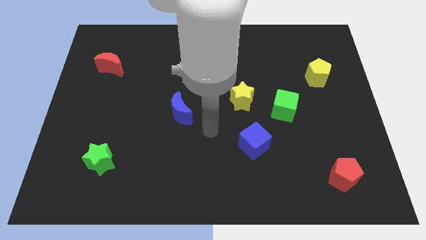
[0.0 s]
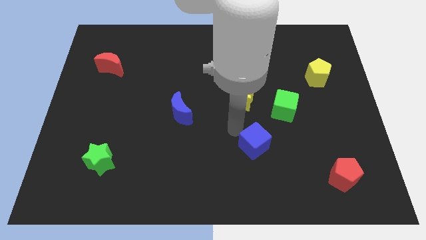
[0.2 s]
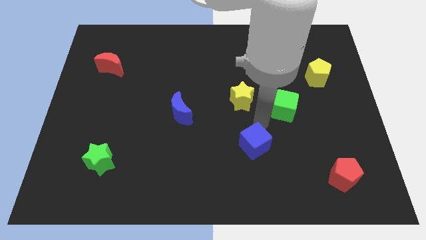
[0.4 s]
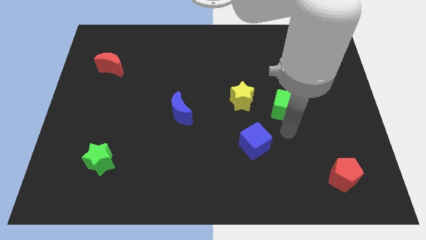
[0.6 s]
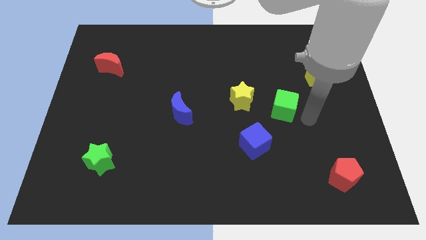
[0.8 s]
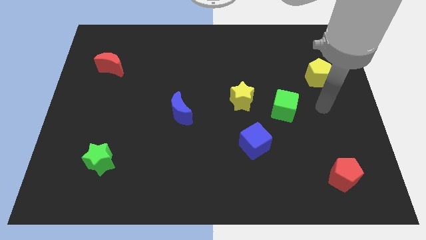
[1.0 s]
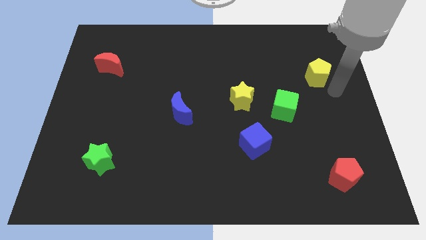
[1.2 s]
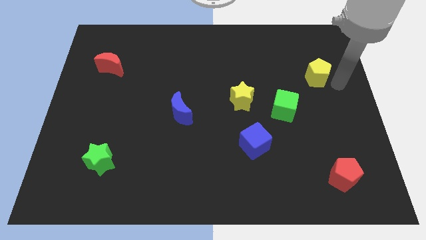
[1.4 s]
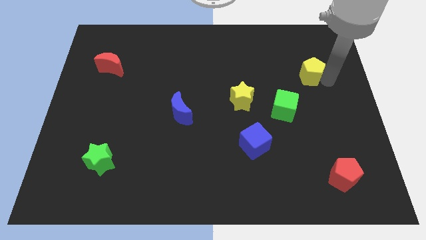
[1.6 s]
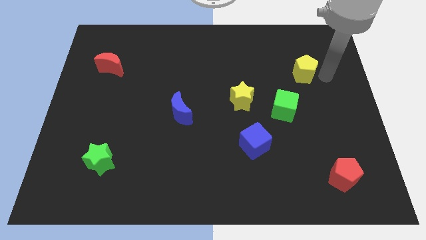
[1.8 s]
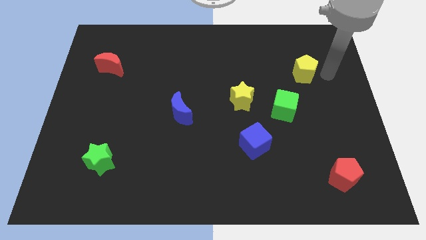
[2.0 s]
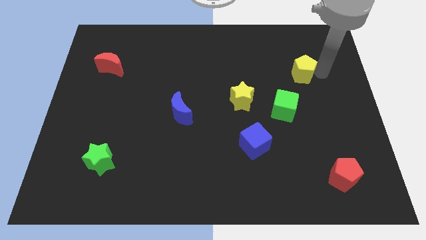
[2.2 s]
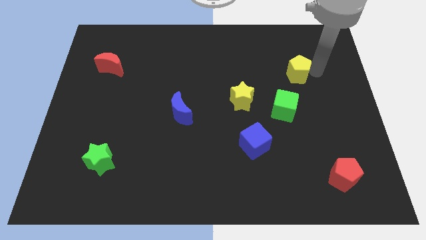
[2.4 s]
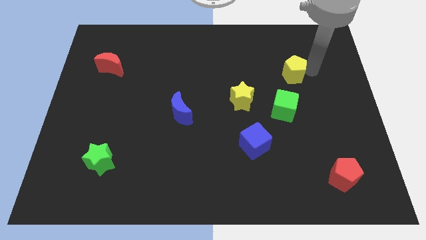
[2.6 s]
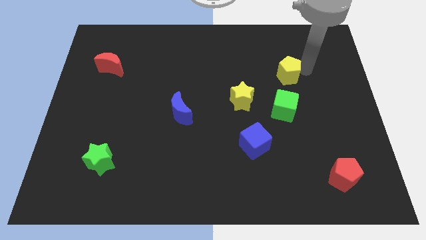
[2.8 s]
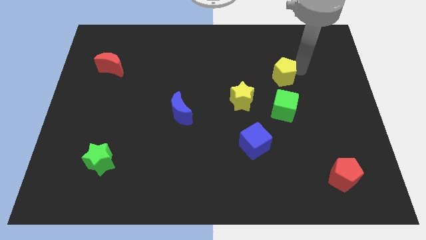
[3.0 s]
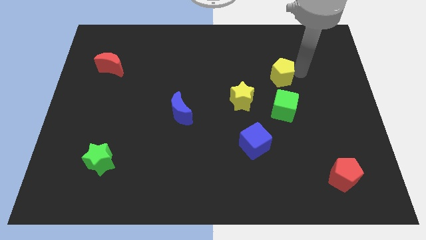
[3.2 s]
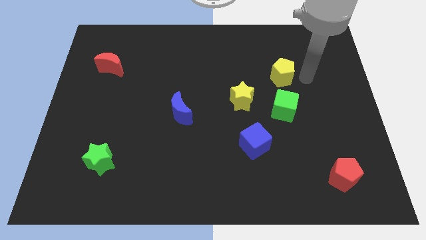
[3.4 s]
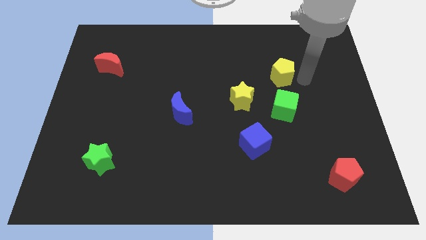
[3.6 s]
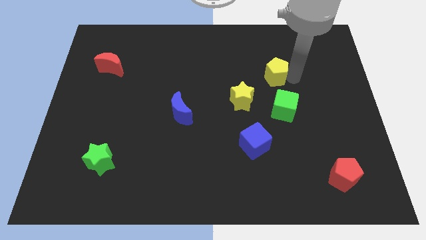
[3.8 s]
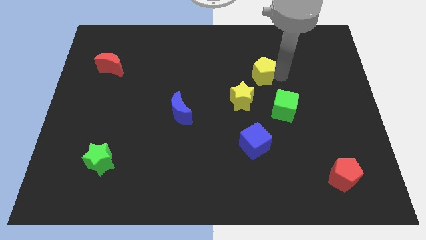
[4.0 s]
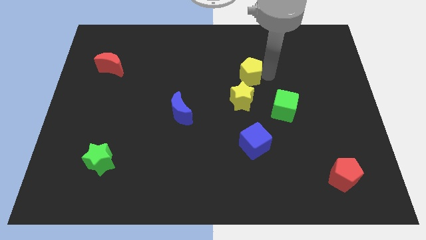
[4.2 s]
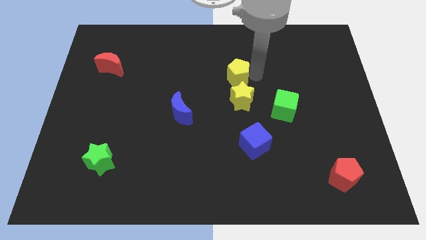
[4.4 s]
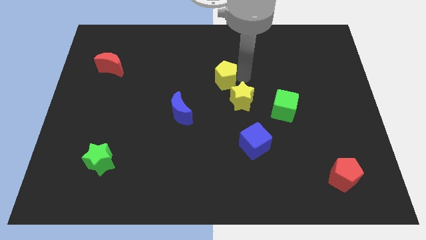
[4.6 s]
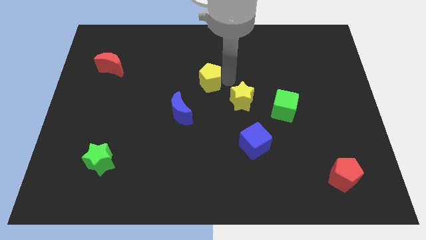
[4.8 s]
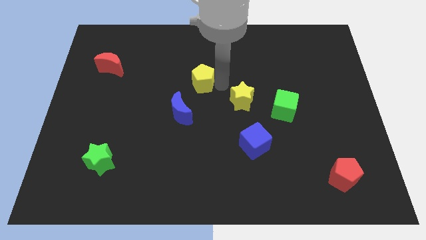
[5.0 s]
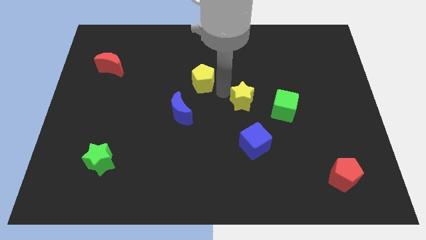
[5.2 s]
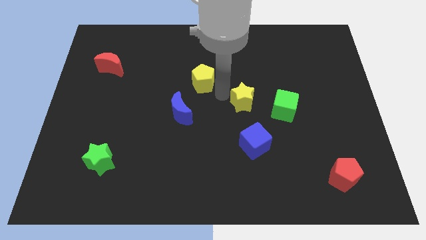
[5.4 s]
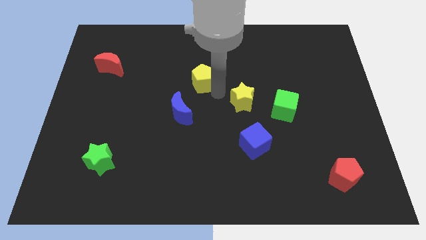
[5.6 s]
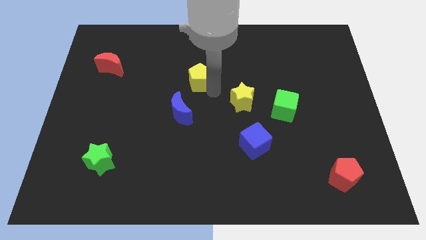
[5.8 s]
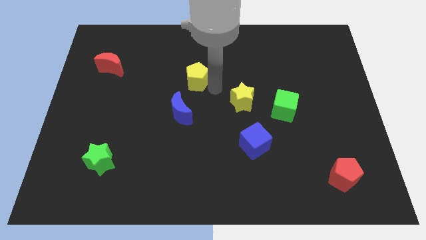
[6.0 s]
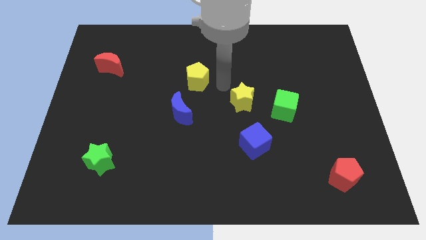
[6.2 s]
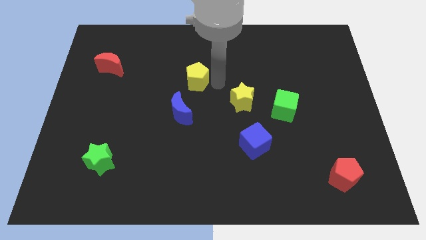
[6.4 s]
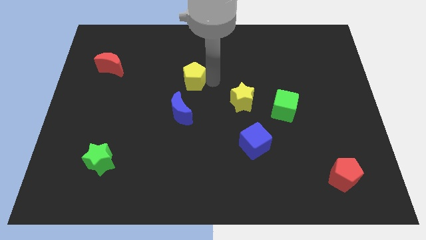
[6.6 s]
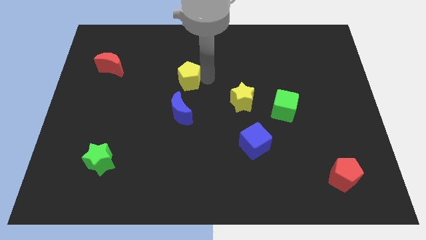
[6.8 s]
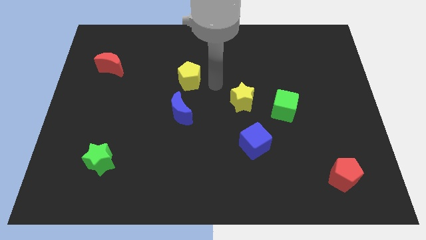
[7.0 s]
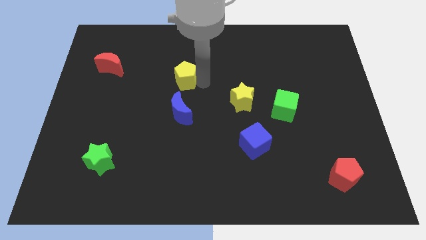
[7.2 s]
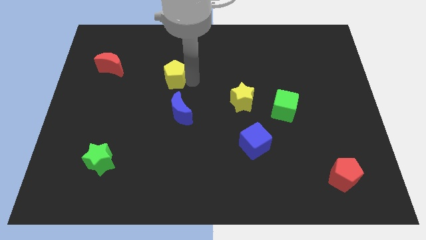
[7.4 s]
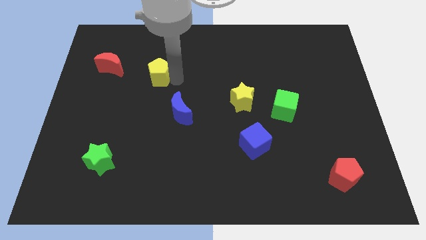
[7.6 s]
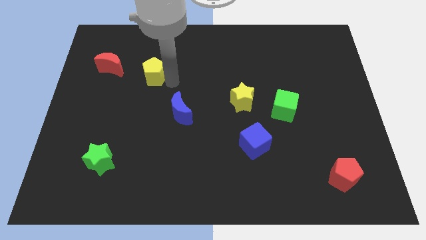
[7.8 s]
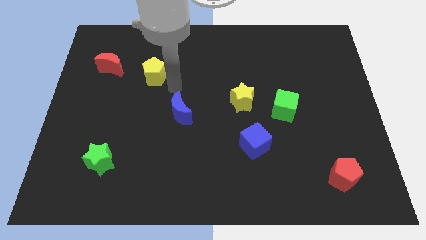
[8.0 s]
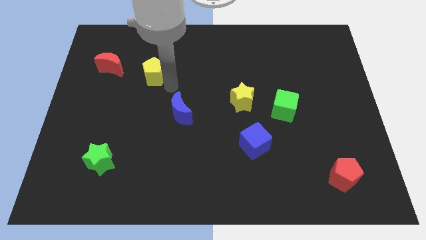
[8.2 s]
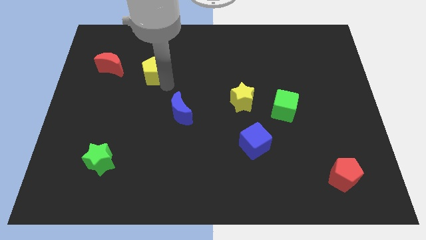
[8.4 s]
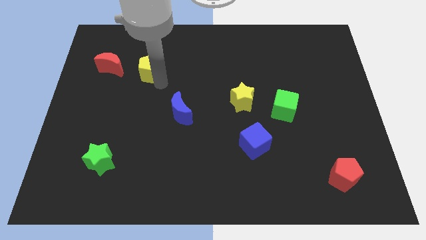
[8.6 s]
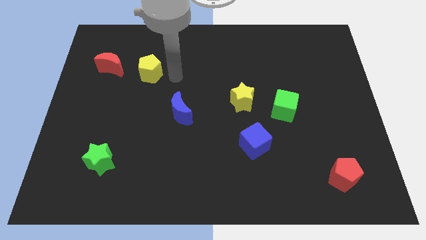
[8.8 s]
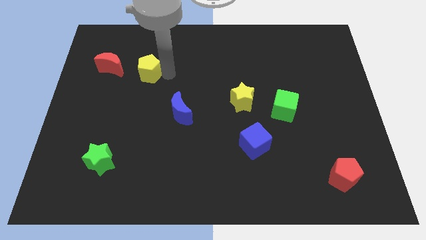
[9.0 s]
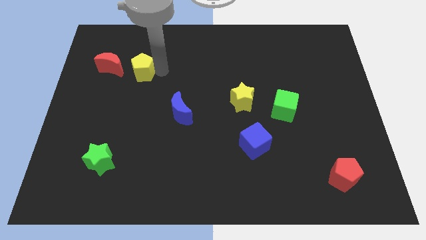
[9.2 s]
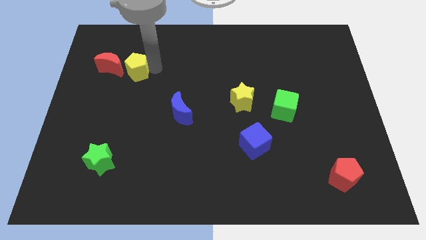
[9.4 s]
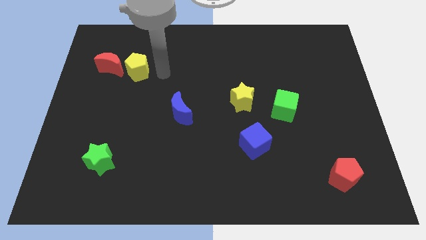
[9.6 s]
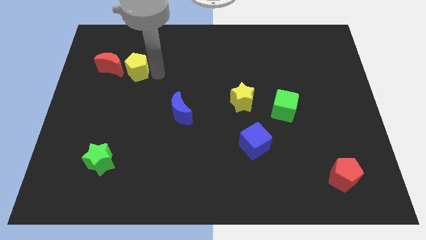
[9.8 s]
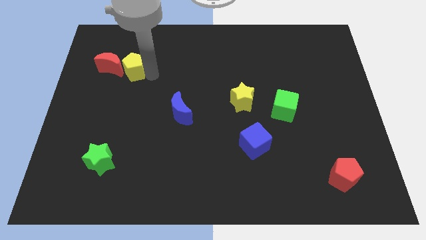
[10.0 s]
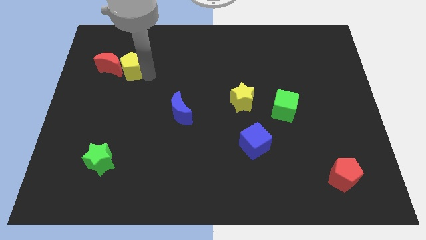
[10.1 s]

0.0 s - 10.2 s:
put the yellow pentagon to the red moon

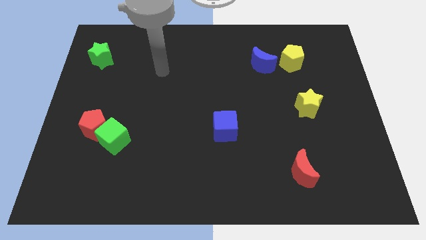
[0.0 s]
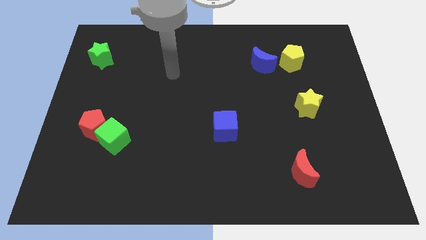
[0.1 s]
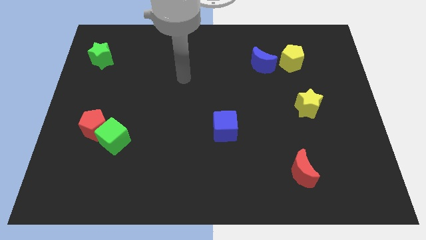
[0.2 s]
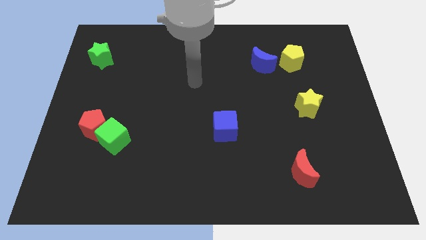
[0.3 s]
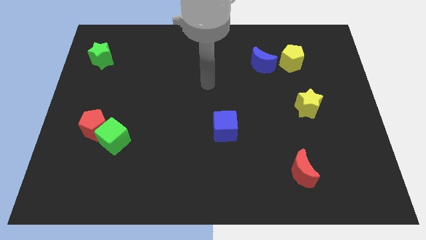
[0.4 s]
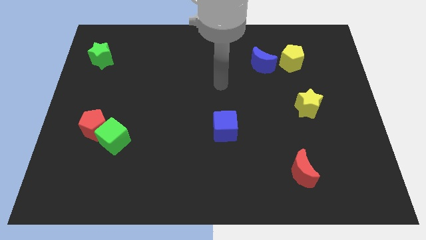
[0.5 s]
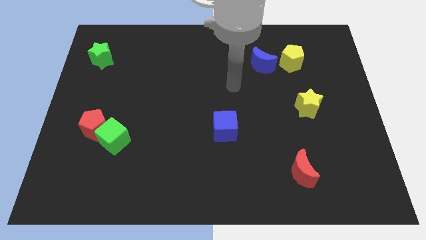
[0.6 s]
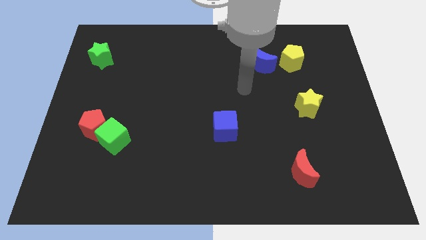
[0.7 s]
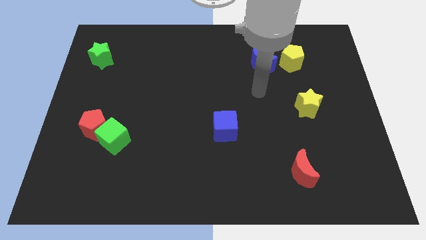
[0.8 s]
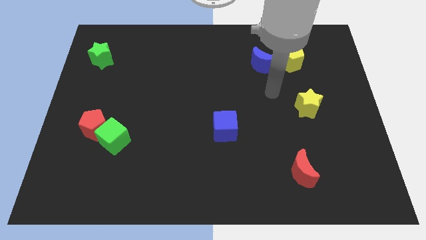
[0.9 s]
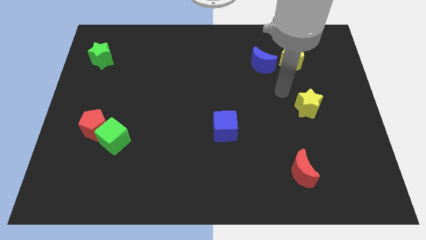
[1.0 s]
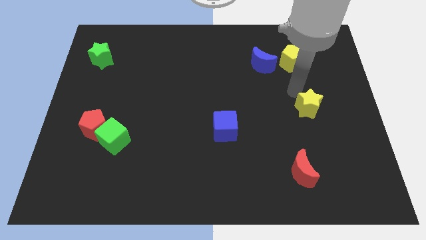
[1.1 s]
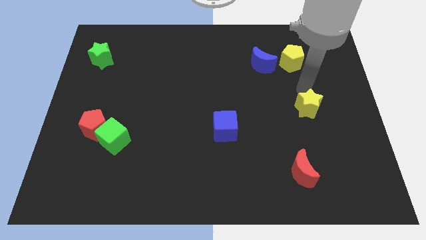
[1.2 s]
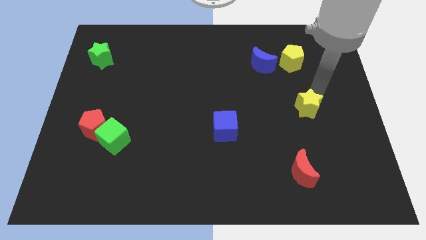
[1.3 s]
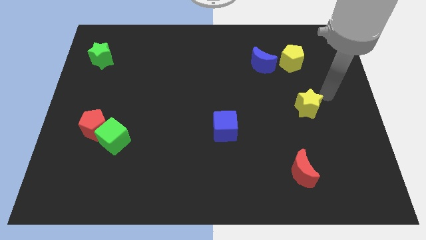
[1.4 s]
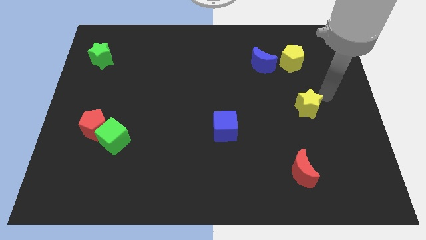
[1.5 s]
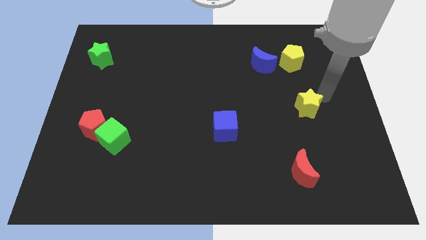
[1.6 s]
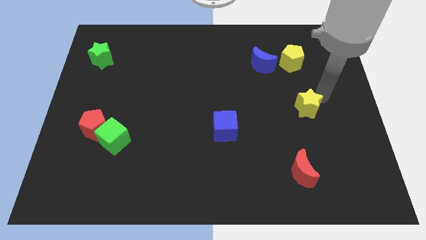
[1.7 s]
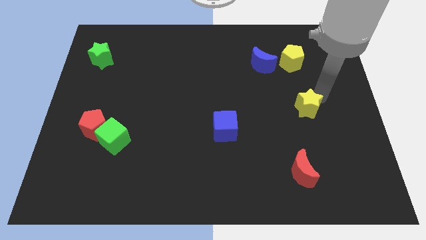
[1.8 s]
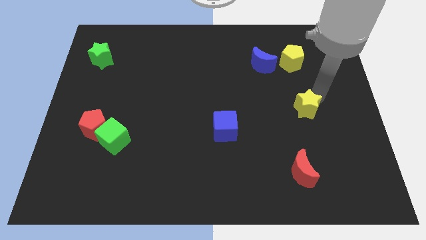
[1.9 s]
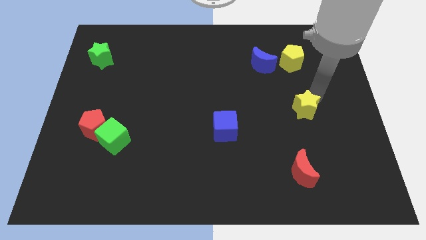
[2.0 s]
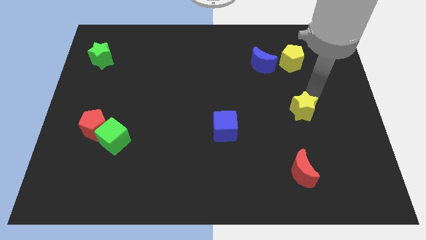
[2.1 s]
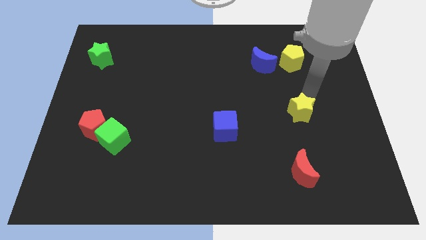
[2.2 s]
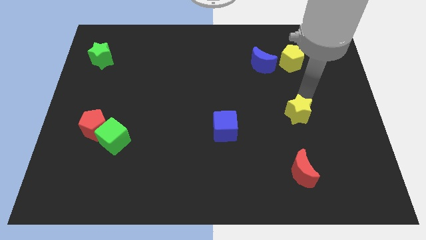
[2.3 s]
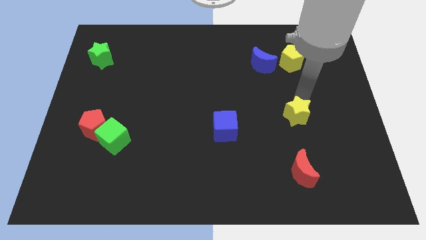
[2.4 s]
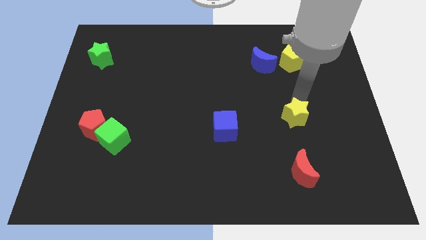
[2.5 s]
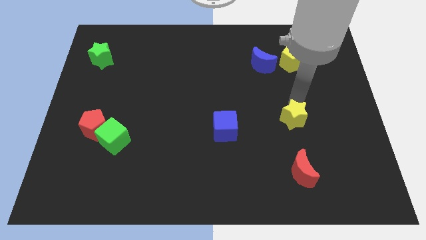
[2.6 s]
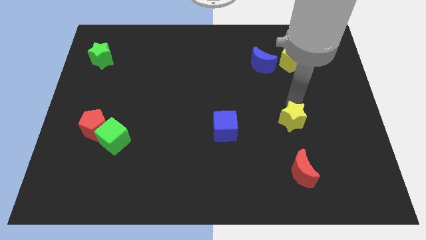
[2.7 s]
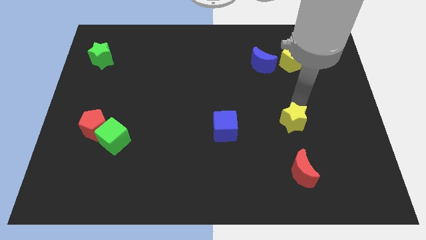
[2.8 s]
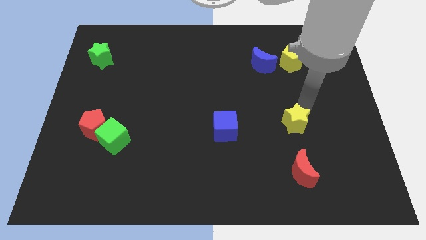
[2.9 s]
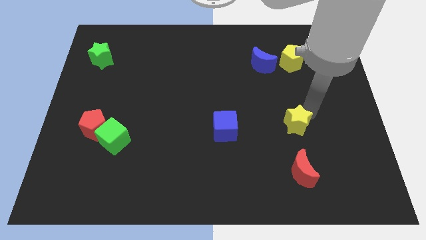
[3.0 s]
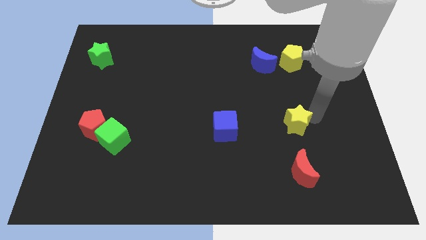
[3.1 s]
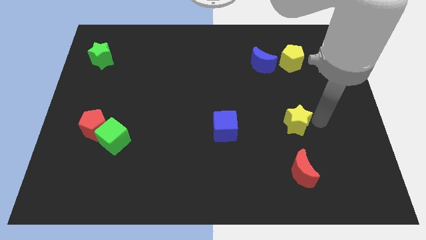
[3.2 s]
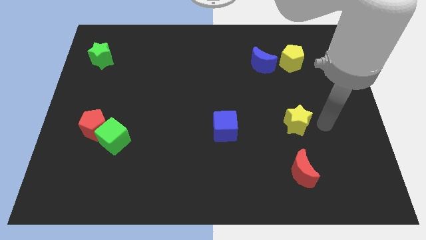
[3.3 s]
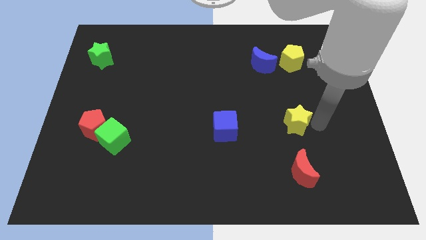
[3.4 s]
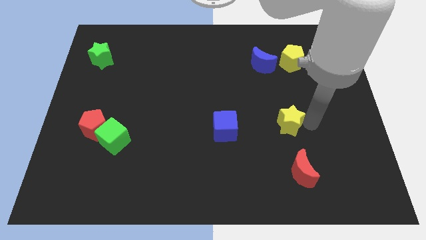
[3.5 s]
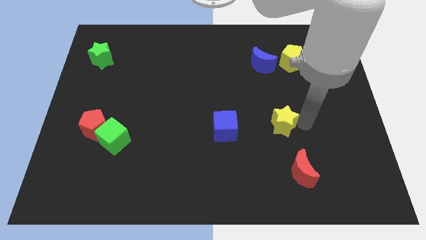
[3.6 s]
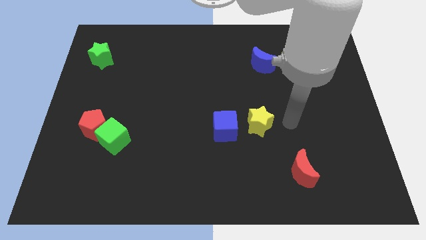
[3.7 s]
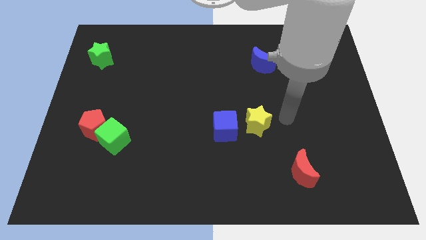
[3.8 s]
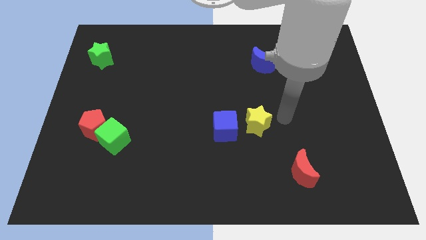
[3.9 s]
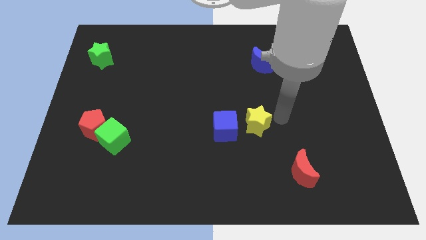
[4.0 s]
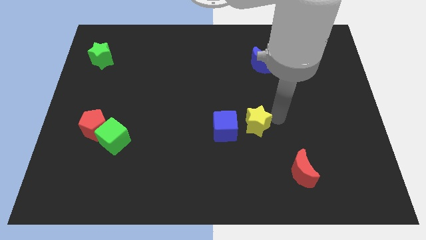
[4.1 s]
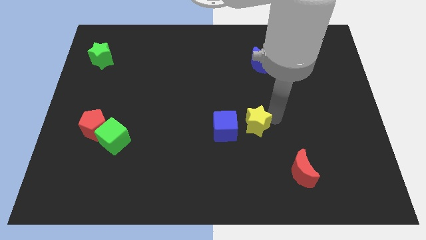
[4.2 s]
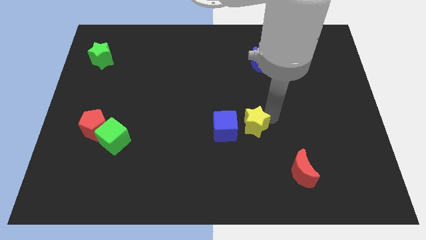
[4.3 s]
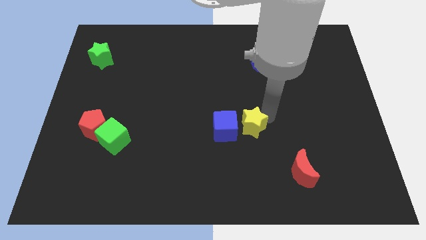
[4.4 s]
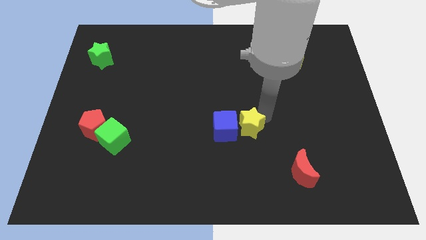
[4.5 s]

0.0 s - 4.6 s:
put the yellow star towards the blue cube
